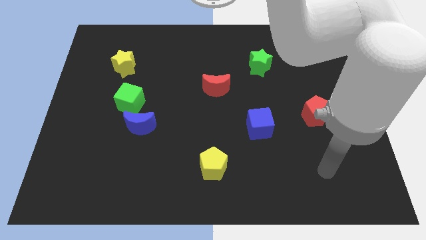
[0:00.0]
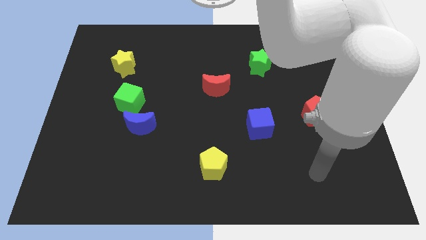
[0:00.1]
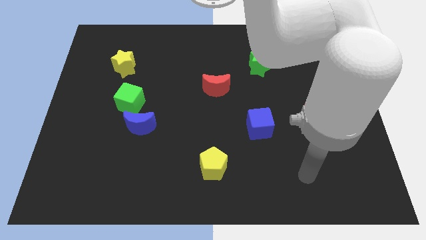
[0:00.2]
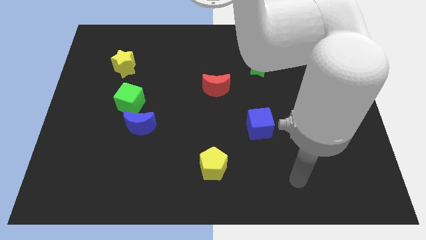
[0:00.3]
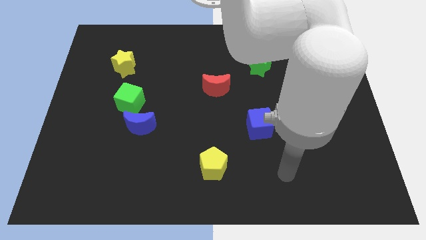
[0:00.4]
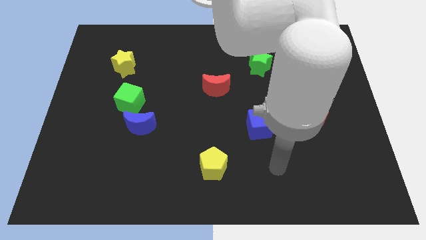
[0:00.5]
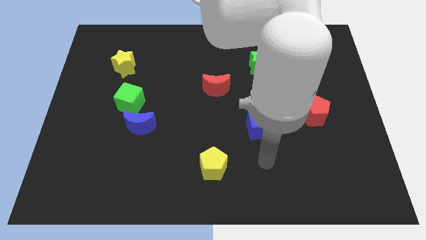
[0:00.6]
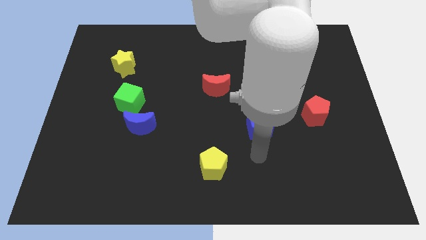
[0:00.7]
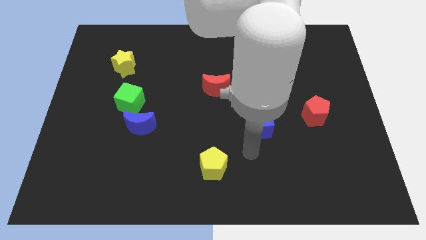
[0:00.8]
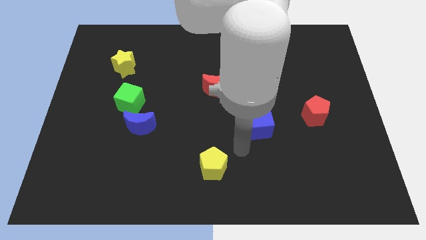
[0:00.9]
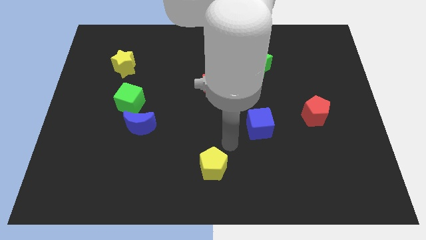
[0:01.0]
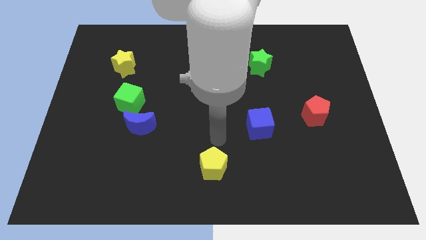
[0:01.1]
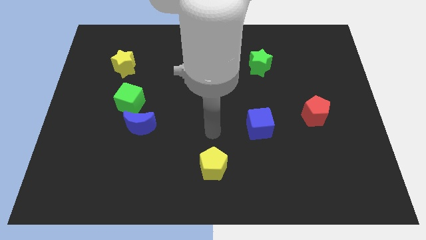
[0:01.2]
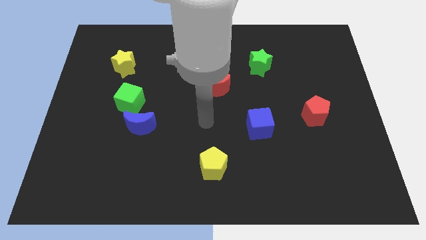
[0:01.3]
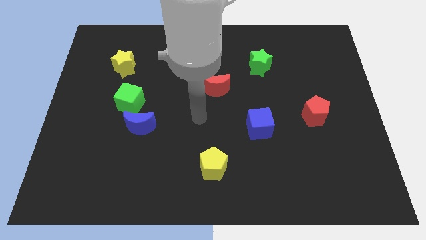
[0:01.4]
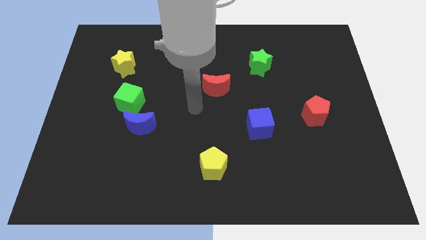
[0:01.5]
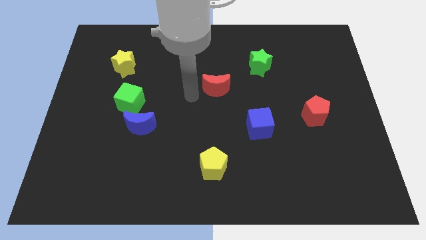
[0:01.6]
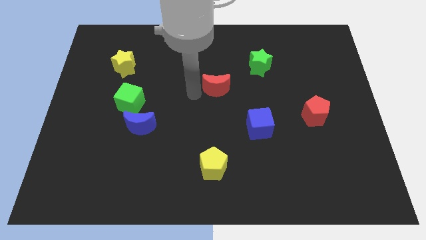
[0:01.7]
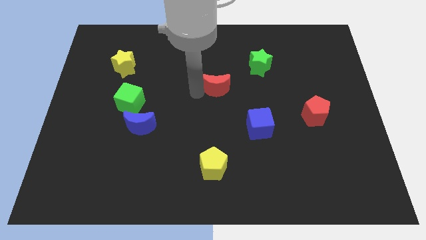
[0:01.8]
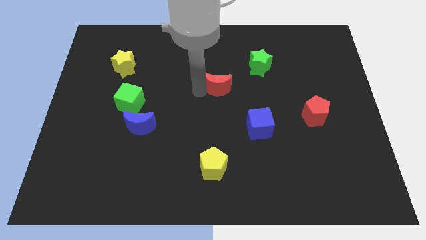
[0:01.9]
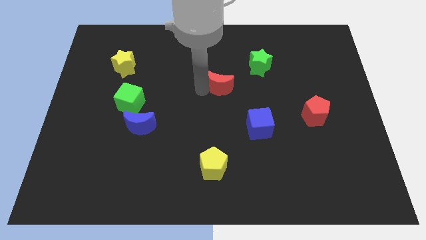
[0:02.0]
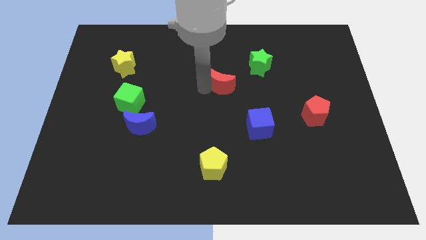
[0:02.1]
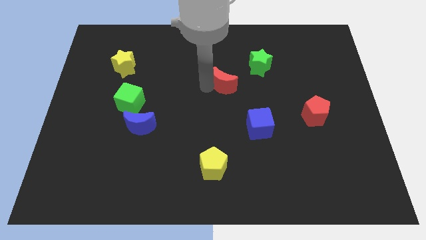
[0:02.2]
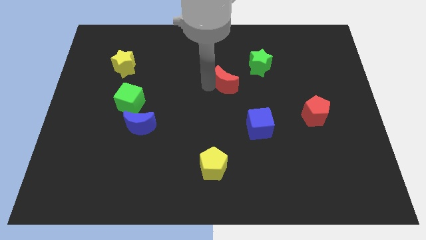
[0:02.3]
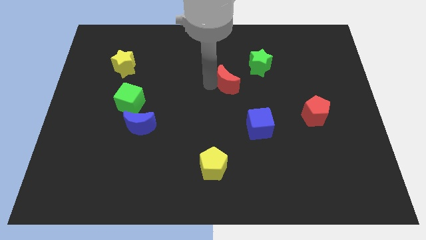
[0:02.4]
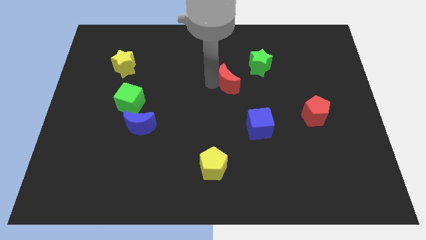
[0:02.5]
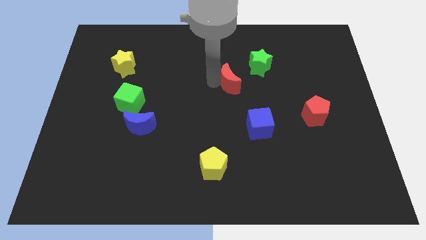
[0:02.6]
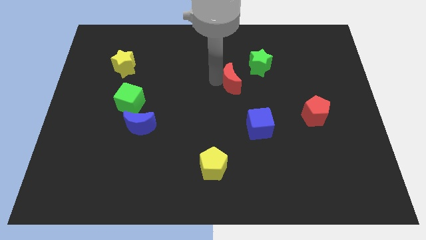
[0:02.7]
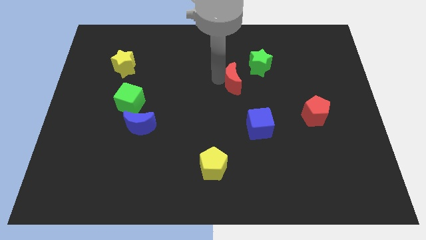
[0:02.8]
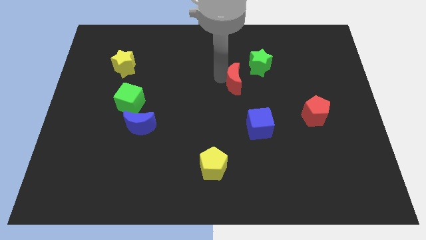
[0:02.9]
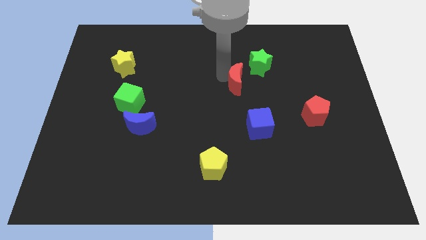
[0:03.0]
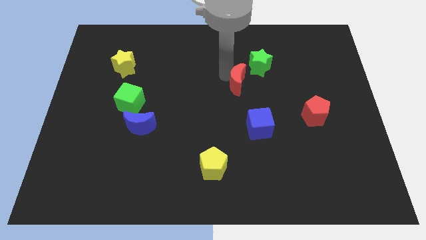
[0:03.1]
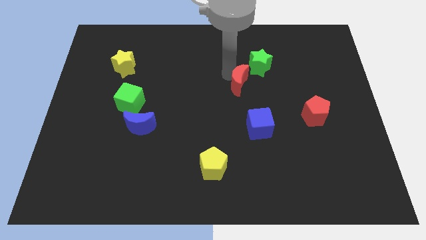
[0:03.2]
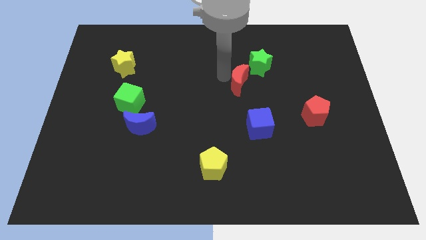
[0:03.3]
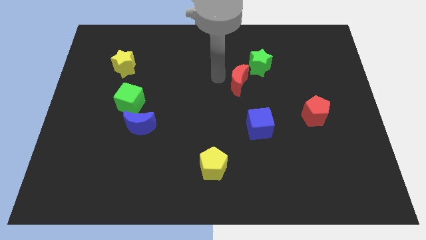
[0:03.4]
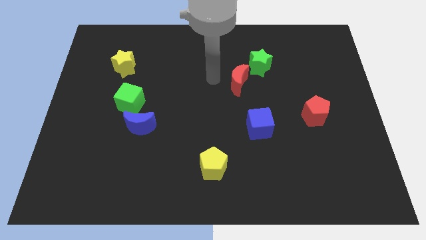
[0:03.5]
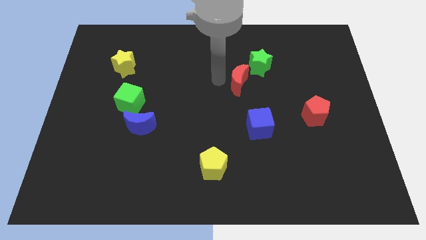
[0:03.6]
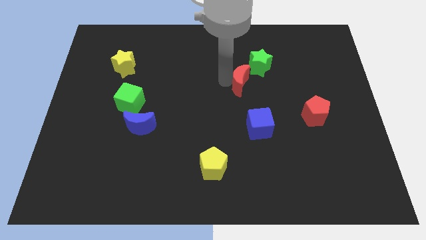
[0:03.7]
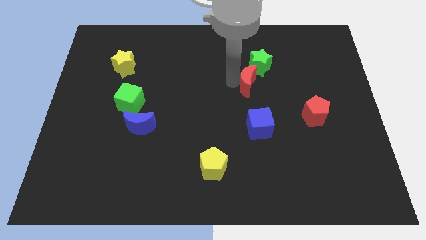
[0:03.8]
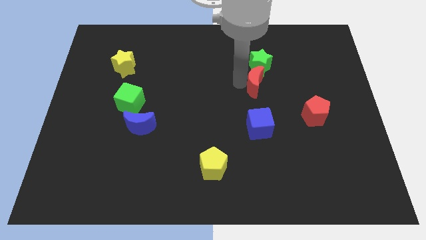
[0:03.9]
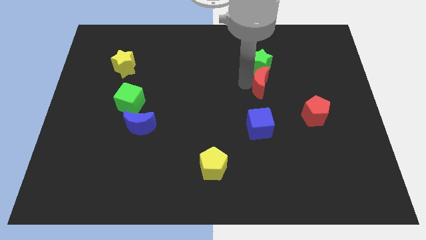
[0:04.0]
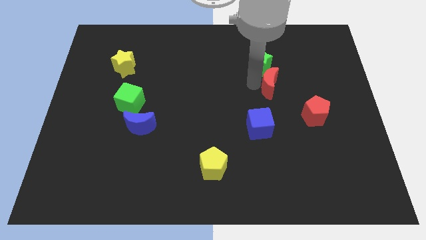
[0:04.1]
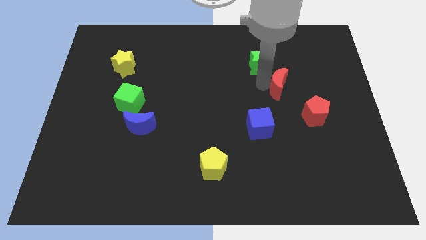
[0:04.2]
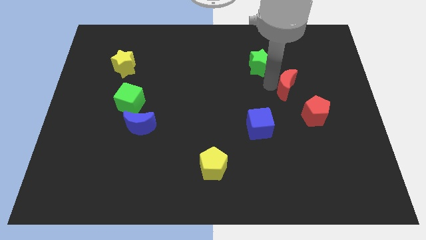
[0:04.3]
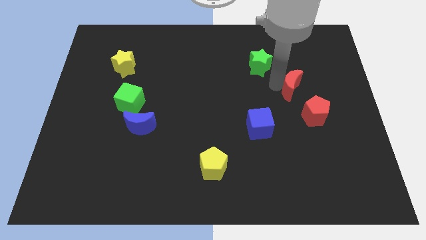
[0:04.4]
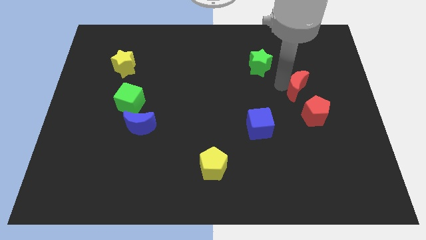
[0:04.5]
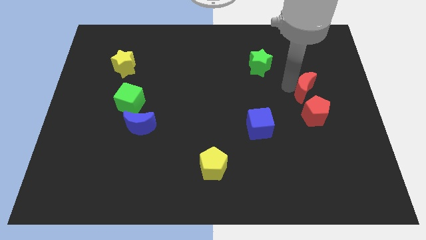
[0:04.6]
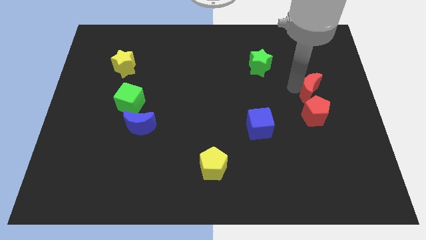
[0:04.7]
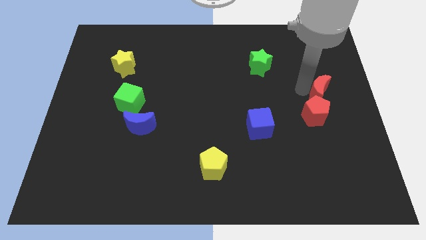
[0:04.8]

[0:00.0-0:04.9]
put the red moon to the center right

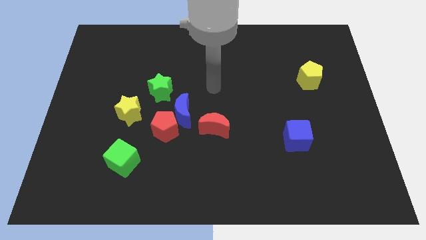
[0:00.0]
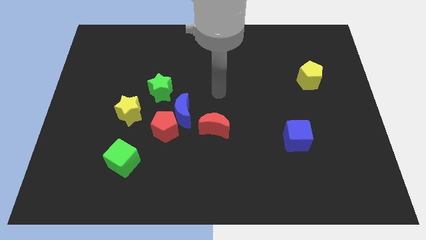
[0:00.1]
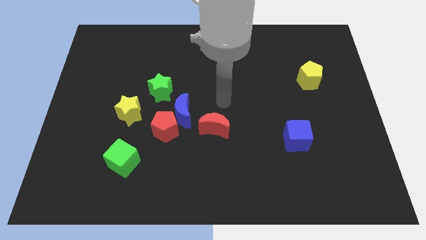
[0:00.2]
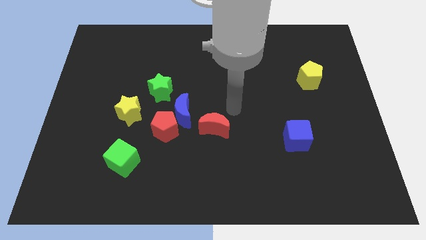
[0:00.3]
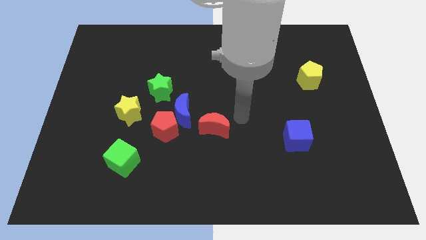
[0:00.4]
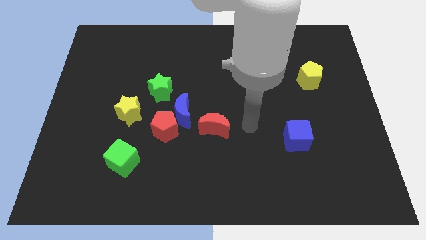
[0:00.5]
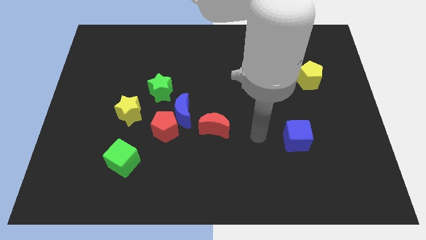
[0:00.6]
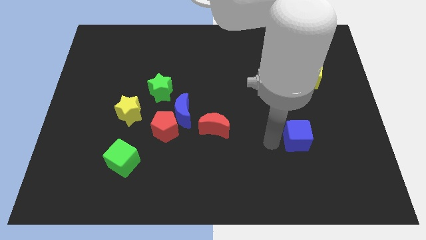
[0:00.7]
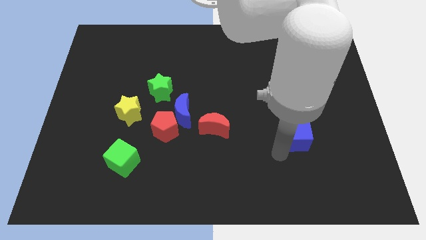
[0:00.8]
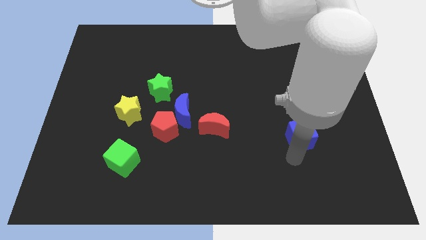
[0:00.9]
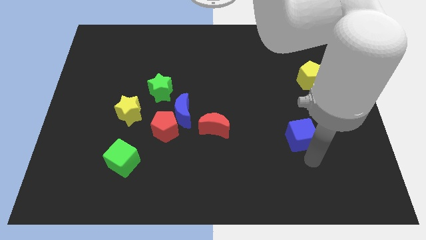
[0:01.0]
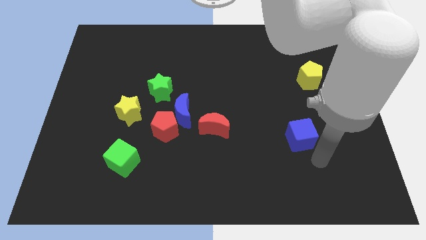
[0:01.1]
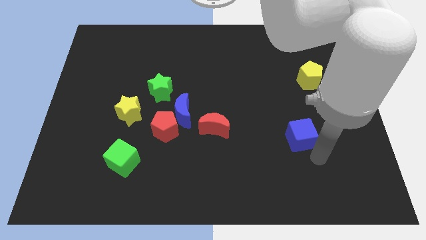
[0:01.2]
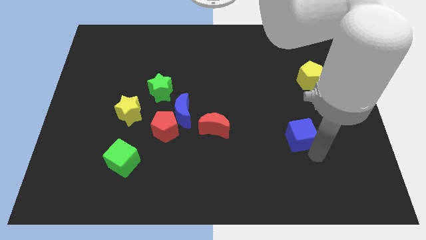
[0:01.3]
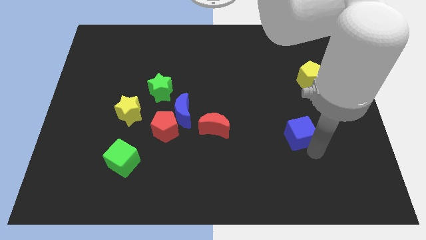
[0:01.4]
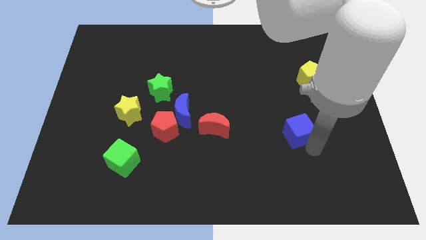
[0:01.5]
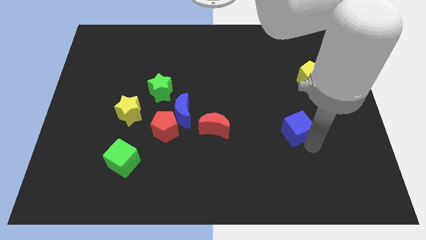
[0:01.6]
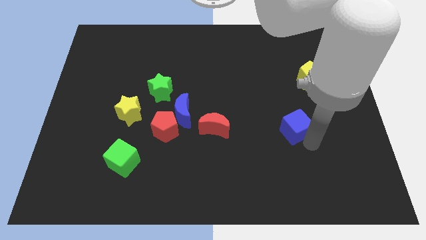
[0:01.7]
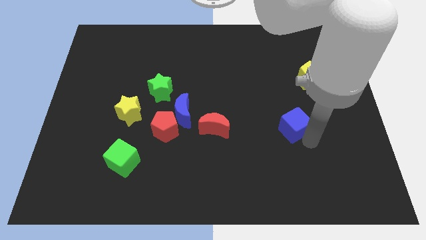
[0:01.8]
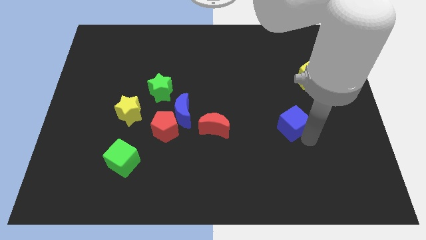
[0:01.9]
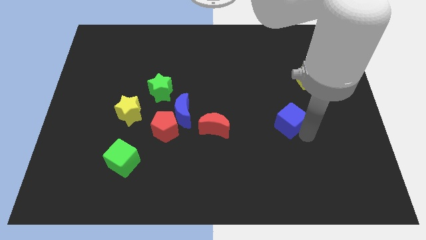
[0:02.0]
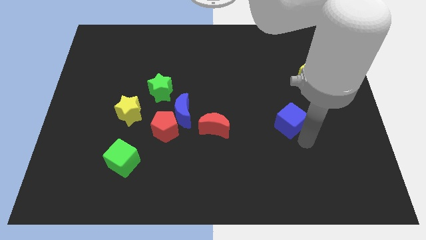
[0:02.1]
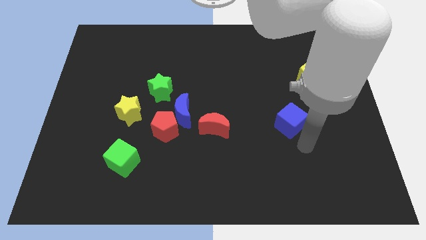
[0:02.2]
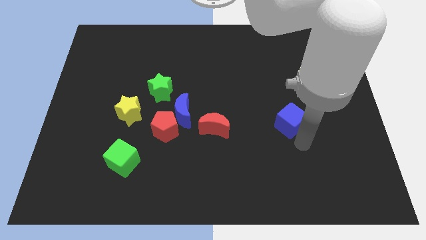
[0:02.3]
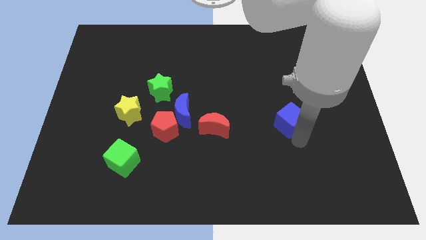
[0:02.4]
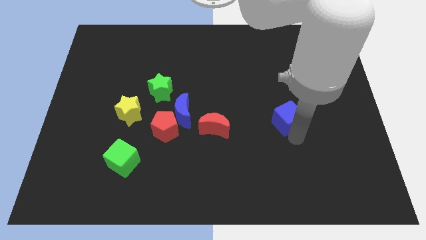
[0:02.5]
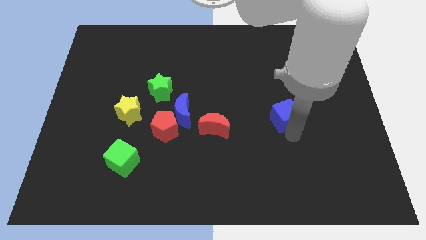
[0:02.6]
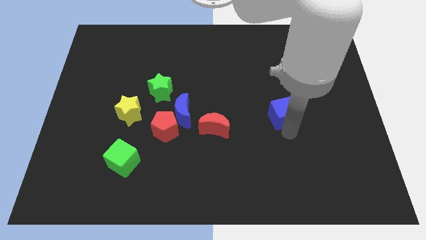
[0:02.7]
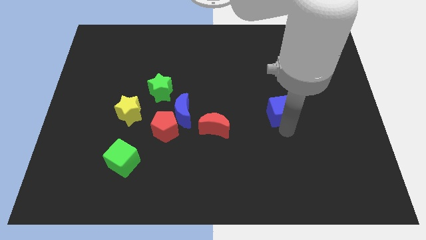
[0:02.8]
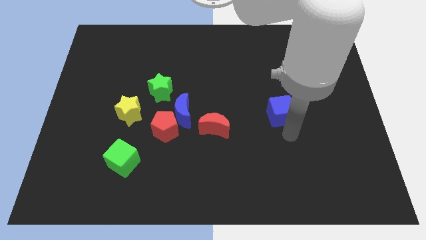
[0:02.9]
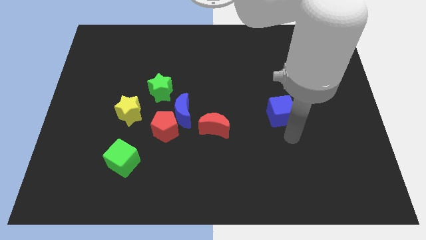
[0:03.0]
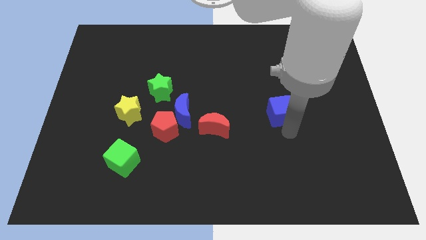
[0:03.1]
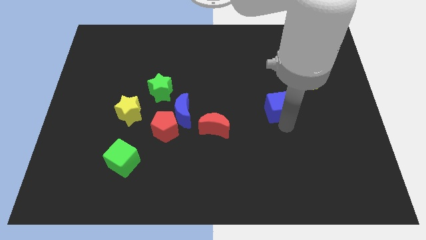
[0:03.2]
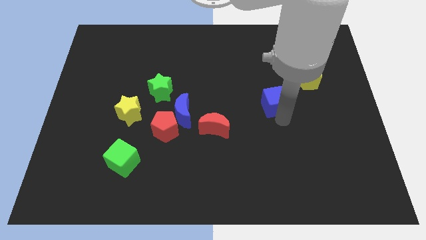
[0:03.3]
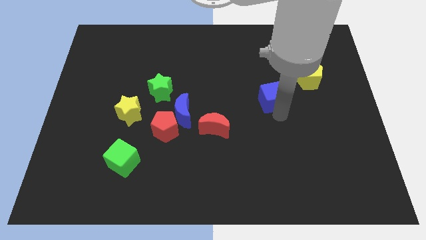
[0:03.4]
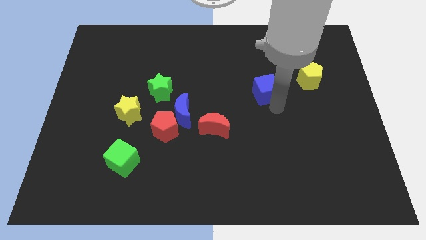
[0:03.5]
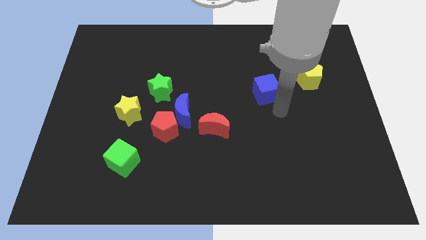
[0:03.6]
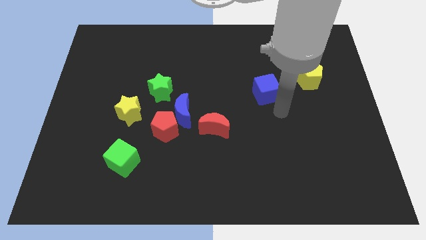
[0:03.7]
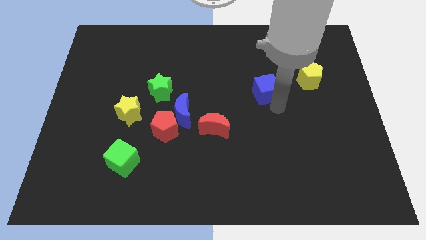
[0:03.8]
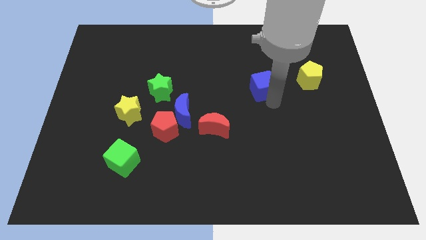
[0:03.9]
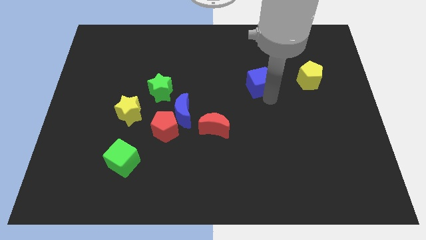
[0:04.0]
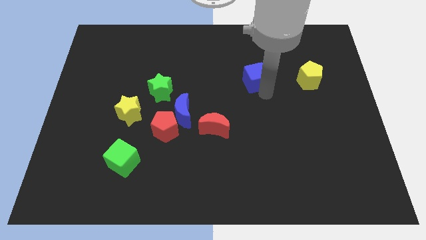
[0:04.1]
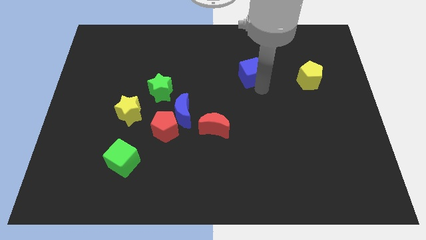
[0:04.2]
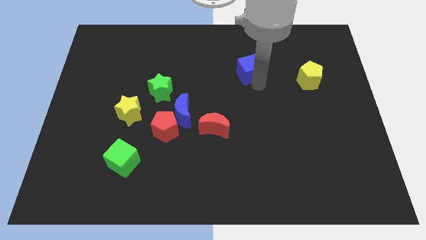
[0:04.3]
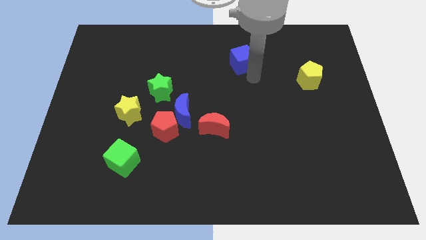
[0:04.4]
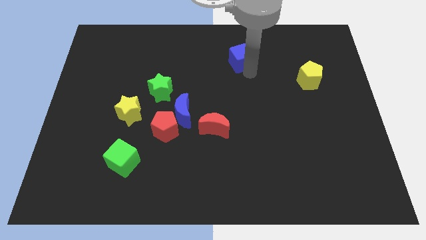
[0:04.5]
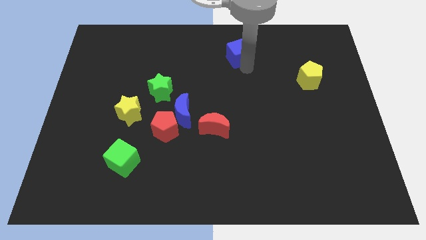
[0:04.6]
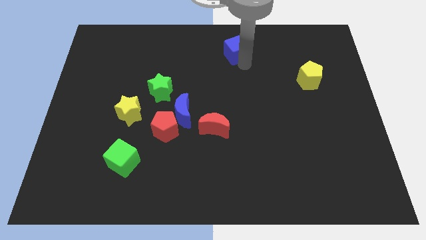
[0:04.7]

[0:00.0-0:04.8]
slide the blue cube to the towards your base
